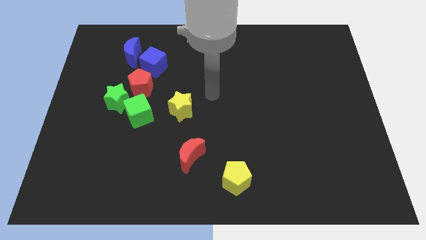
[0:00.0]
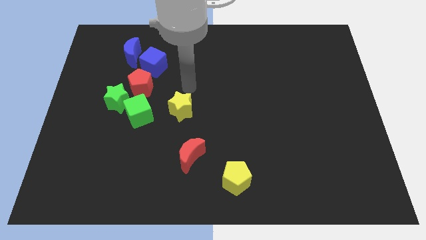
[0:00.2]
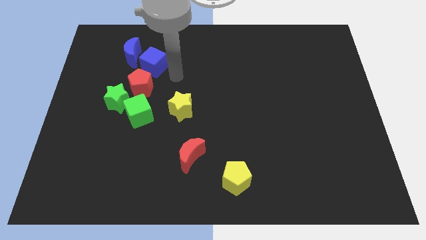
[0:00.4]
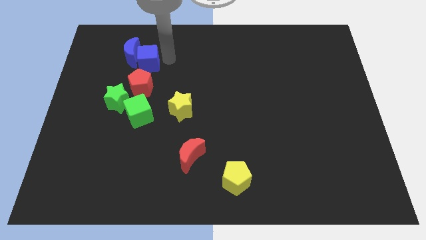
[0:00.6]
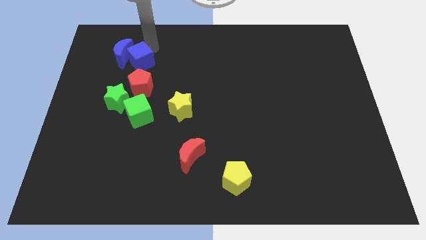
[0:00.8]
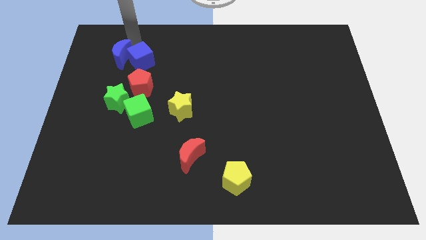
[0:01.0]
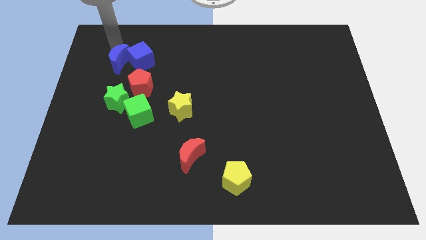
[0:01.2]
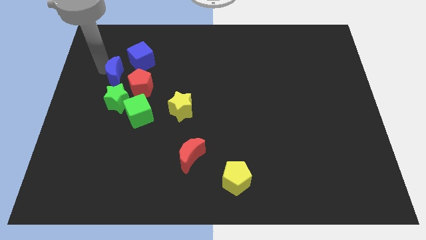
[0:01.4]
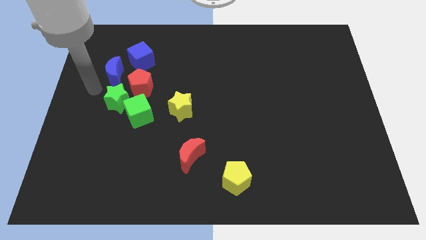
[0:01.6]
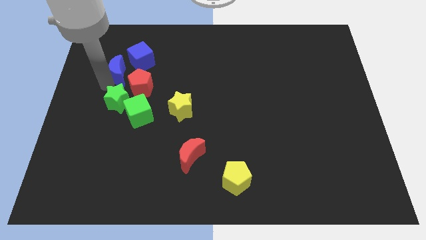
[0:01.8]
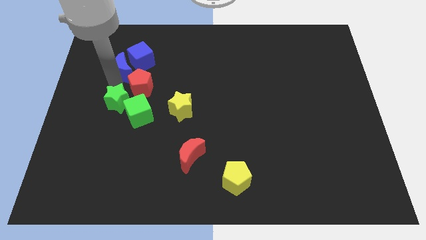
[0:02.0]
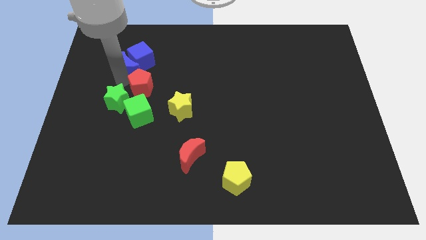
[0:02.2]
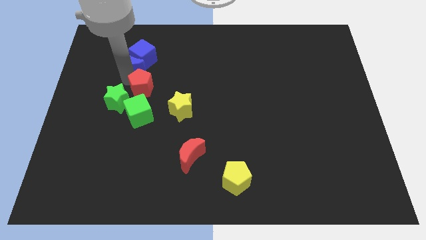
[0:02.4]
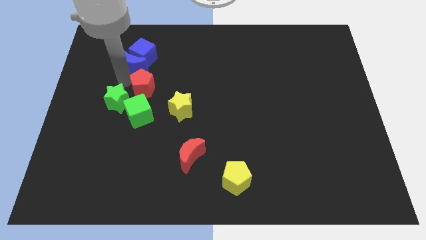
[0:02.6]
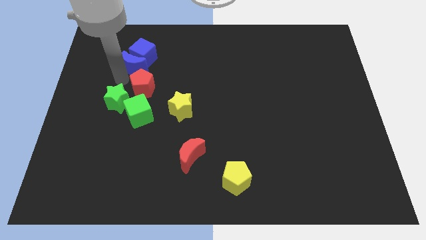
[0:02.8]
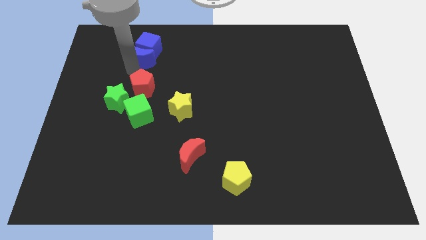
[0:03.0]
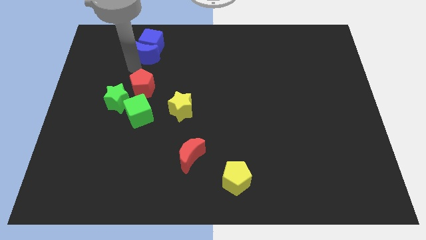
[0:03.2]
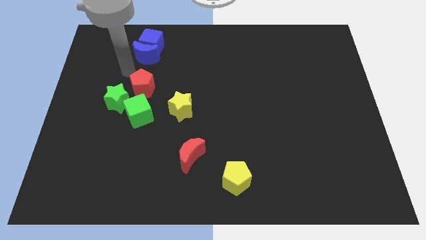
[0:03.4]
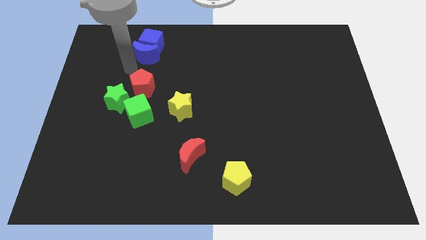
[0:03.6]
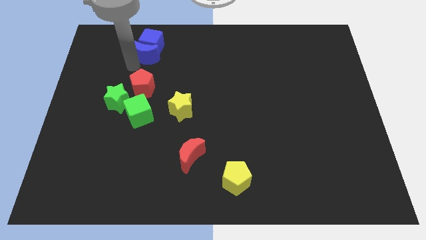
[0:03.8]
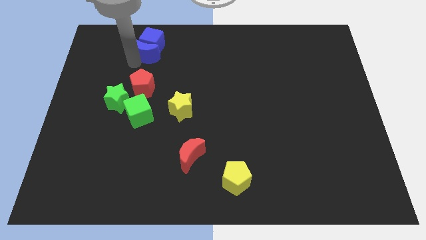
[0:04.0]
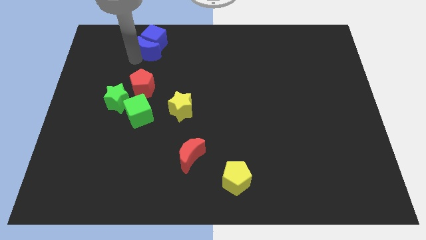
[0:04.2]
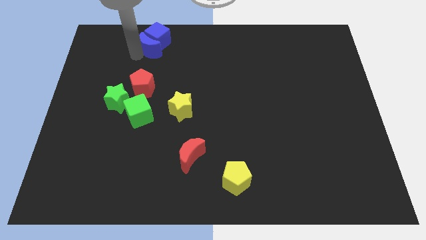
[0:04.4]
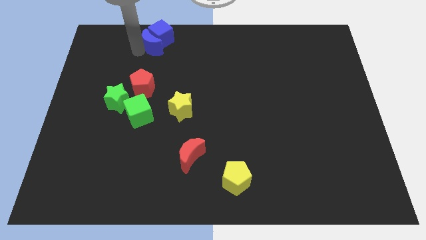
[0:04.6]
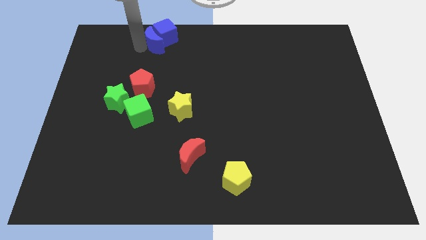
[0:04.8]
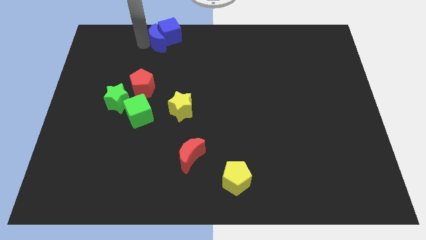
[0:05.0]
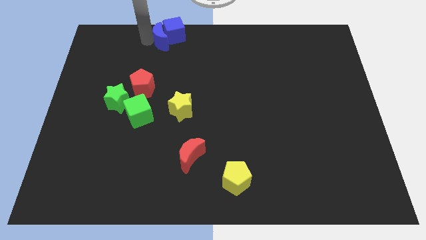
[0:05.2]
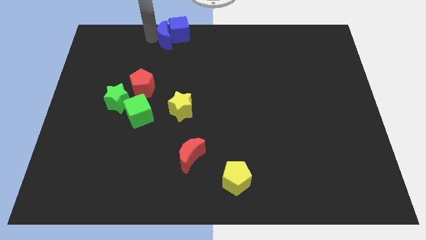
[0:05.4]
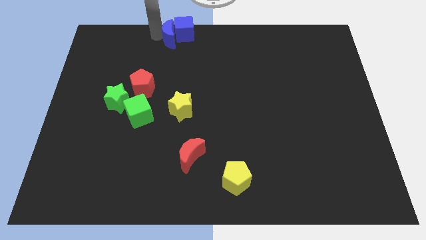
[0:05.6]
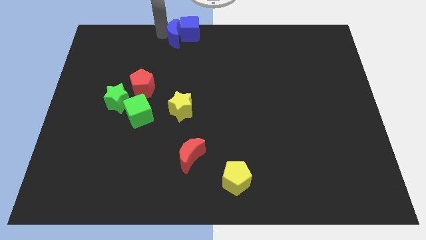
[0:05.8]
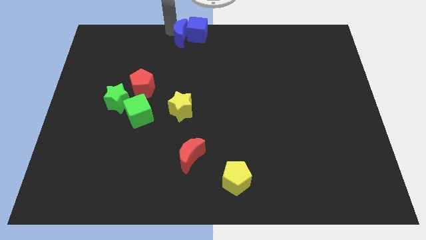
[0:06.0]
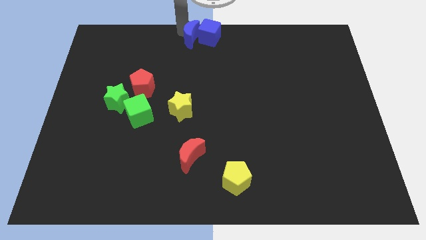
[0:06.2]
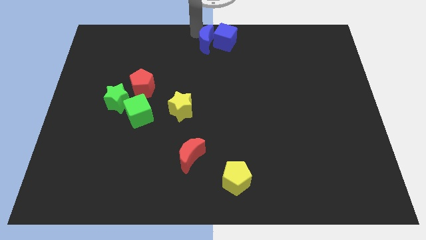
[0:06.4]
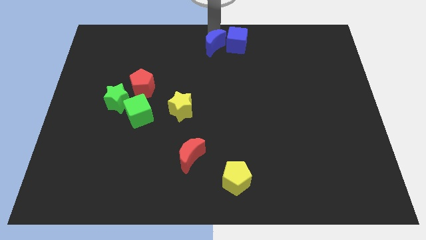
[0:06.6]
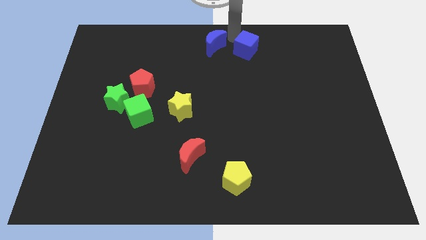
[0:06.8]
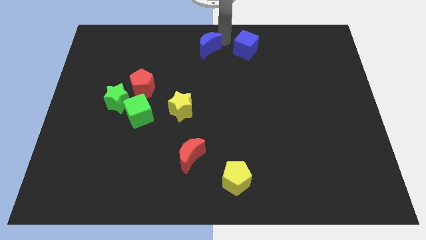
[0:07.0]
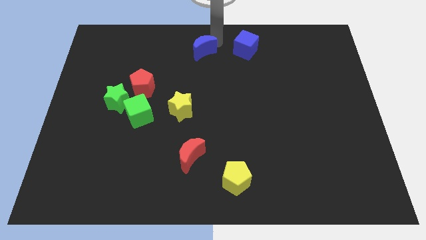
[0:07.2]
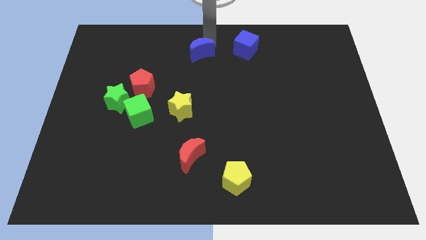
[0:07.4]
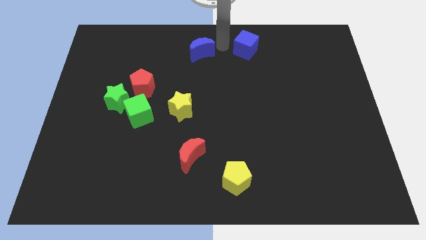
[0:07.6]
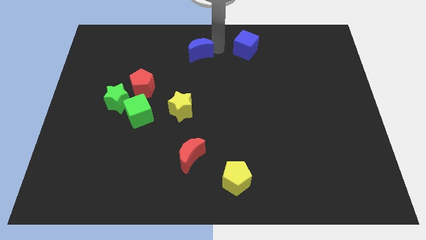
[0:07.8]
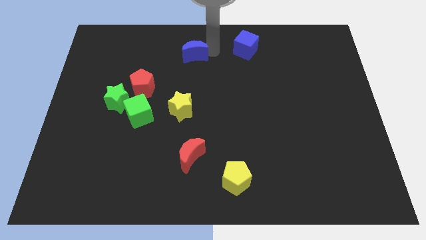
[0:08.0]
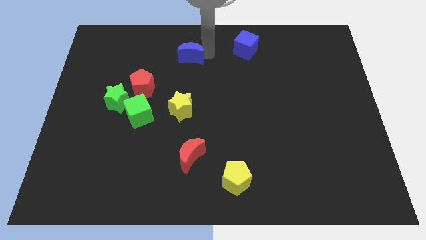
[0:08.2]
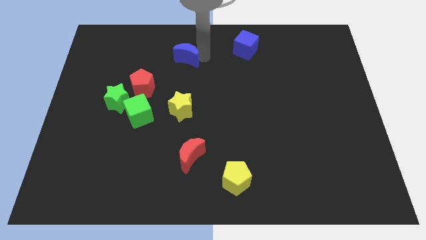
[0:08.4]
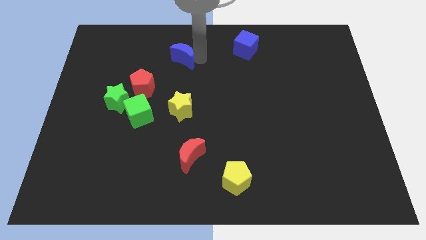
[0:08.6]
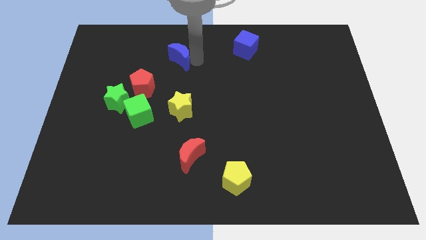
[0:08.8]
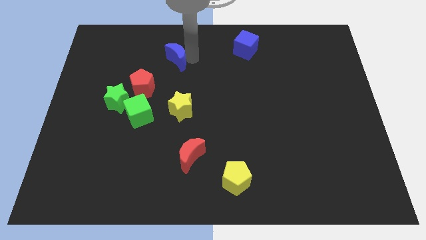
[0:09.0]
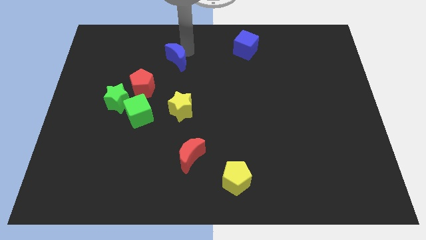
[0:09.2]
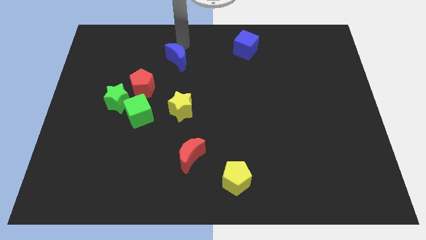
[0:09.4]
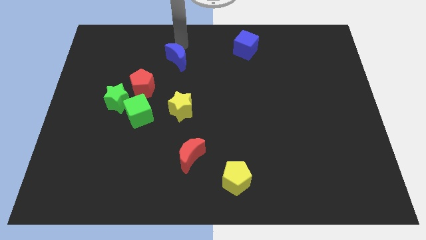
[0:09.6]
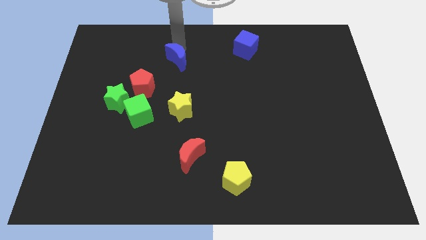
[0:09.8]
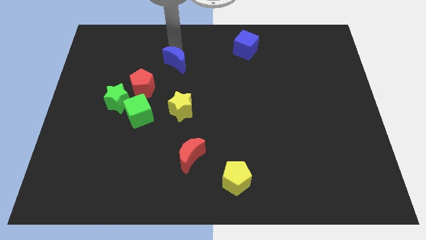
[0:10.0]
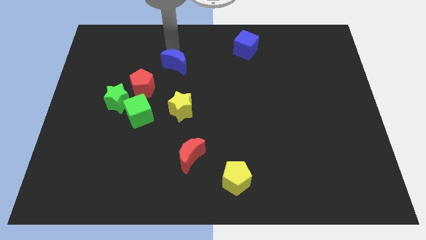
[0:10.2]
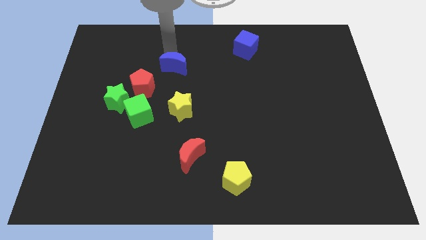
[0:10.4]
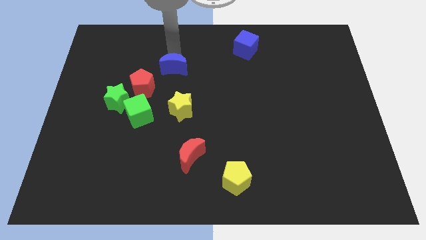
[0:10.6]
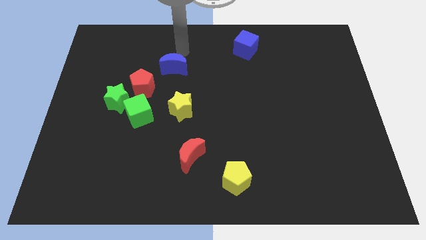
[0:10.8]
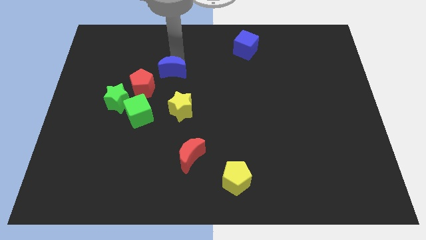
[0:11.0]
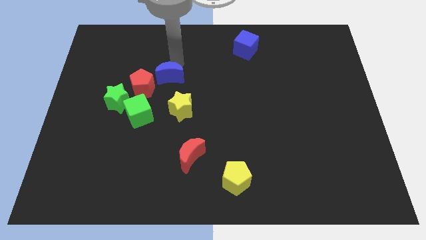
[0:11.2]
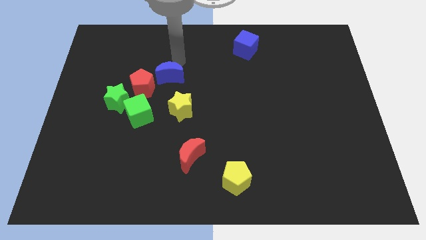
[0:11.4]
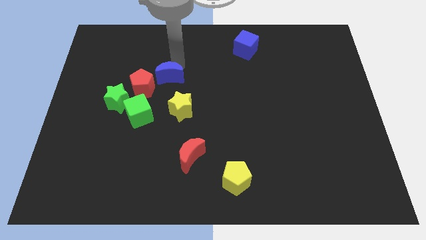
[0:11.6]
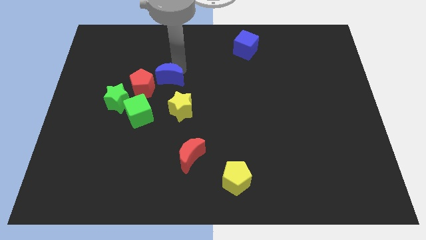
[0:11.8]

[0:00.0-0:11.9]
move the blue moon to the top left side of the yellow star

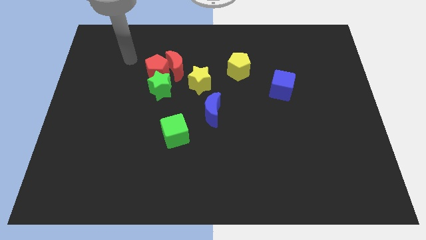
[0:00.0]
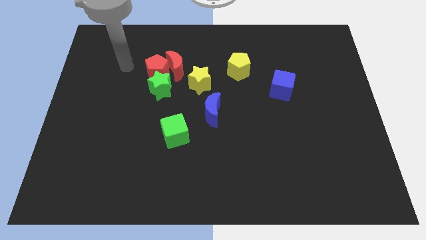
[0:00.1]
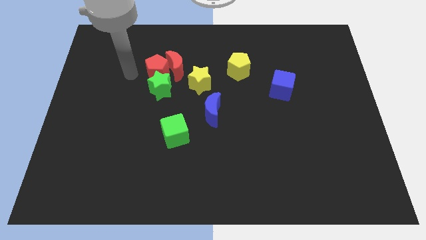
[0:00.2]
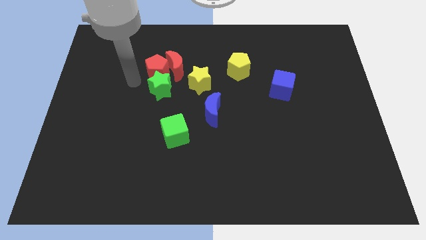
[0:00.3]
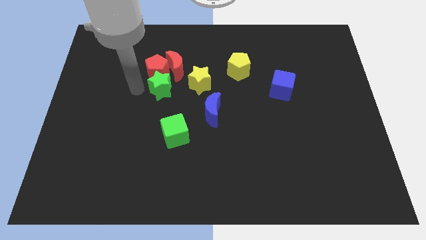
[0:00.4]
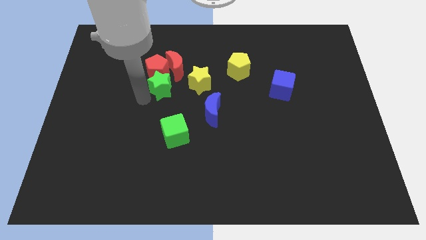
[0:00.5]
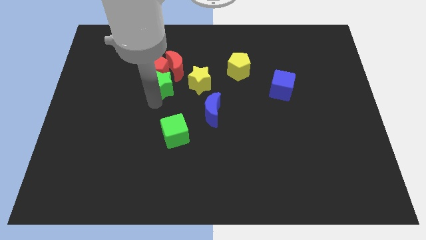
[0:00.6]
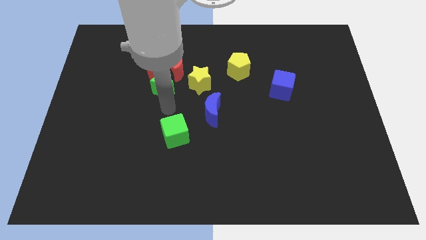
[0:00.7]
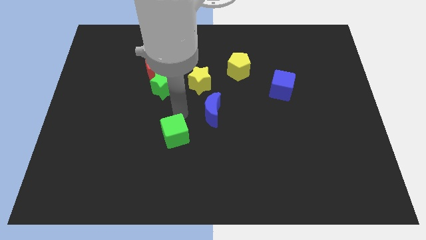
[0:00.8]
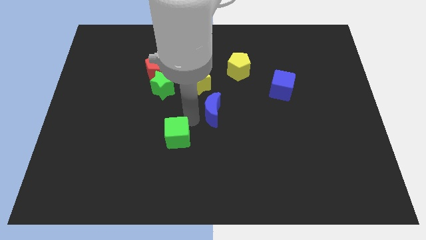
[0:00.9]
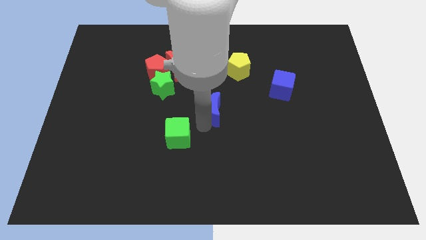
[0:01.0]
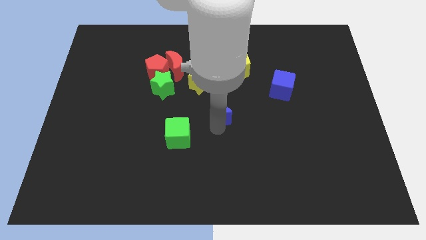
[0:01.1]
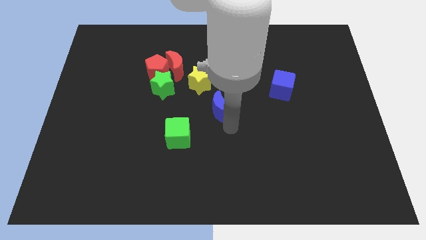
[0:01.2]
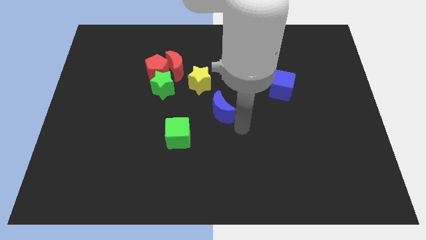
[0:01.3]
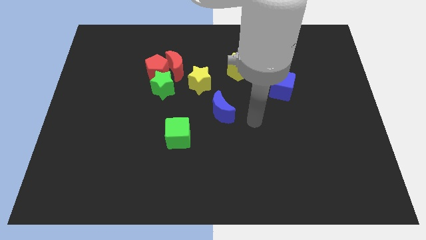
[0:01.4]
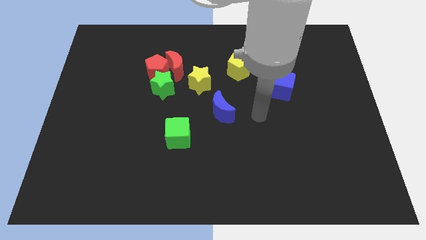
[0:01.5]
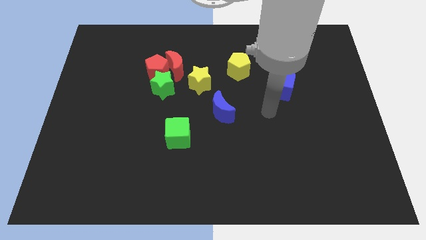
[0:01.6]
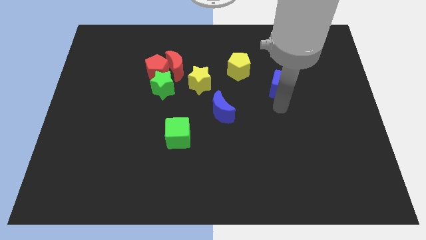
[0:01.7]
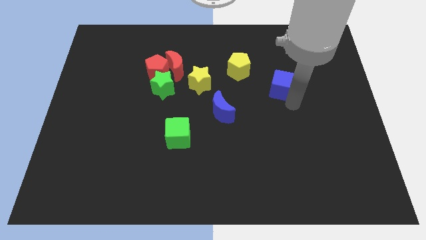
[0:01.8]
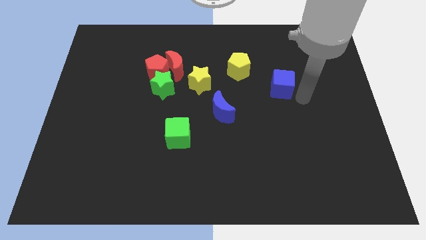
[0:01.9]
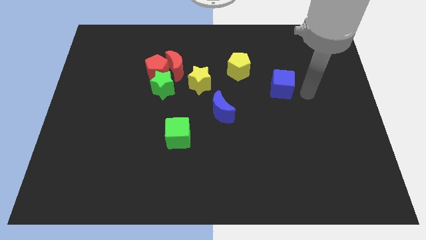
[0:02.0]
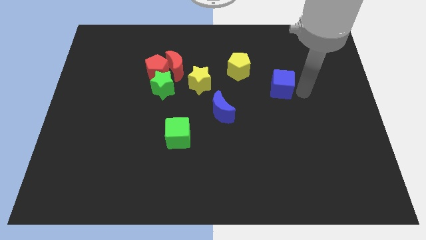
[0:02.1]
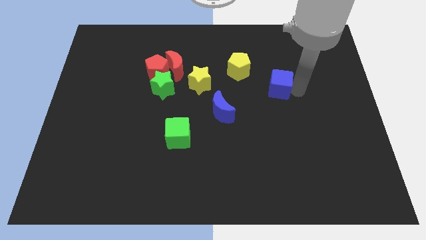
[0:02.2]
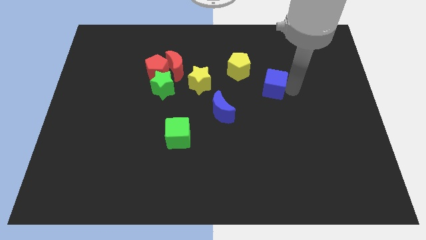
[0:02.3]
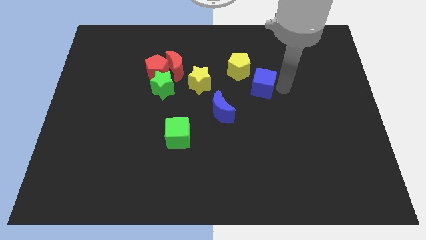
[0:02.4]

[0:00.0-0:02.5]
slide the blue cube just right of the yellow star

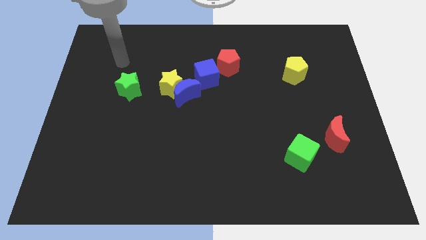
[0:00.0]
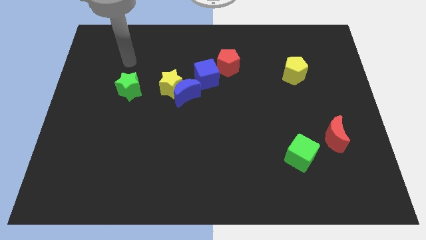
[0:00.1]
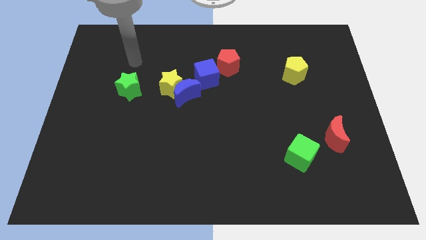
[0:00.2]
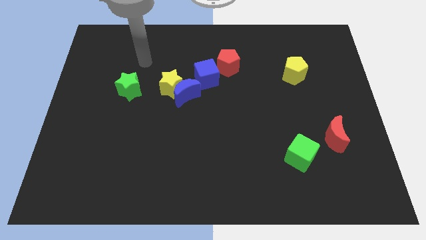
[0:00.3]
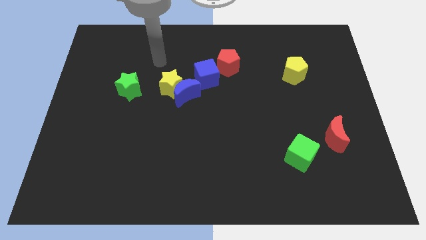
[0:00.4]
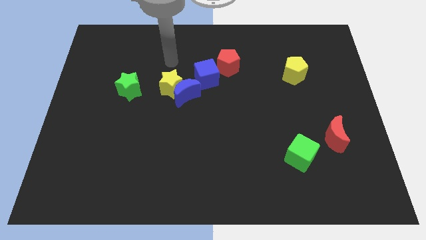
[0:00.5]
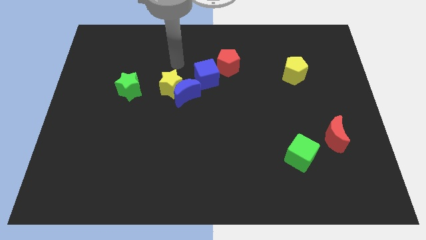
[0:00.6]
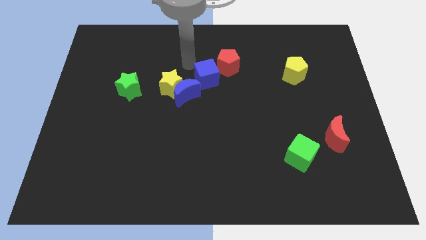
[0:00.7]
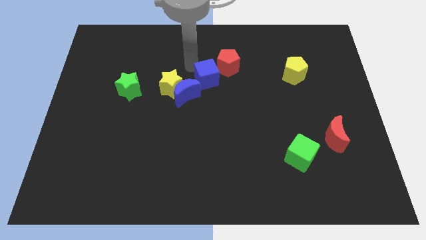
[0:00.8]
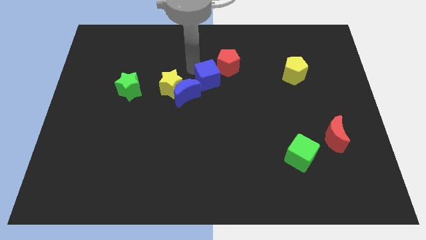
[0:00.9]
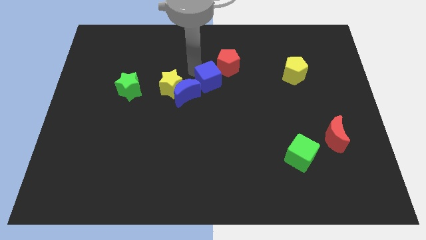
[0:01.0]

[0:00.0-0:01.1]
push the blue cube to the right side of the blue moon
